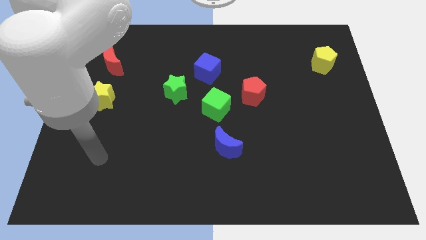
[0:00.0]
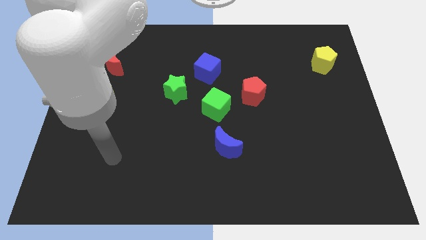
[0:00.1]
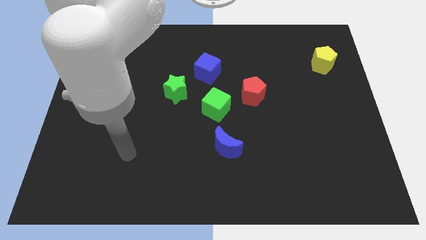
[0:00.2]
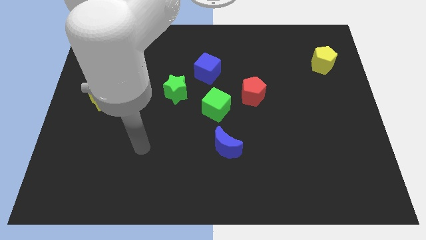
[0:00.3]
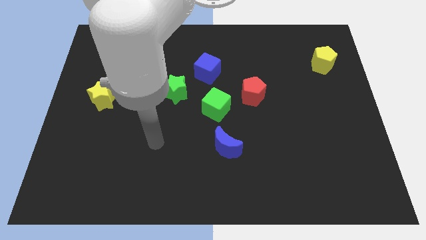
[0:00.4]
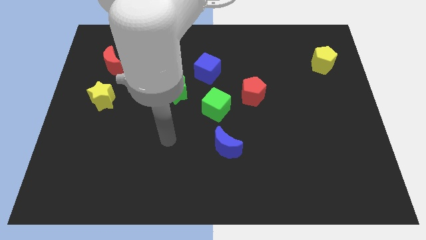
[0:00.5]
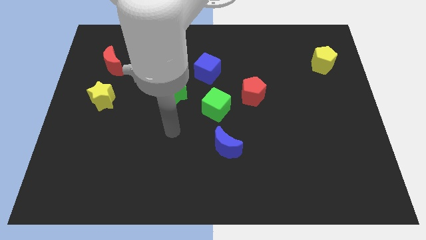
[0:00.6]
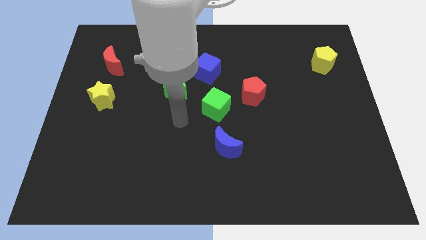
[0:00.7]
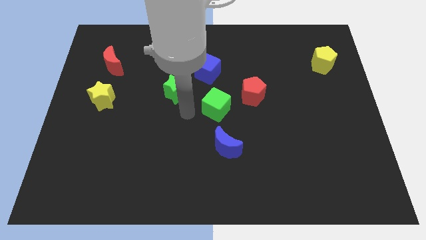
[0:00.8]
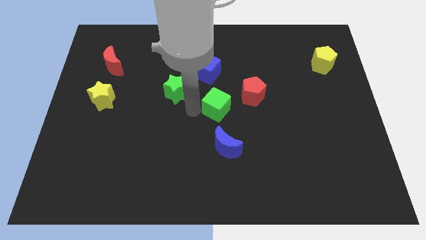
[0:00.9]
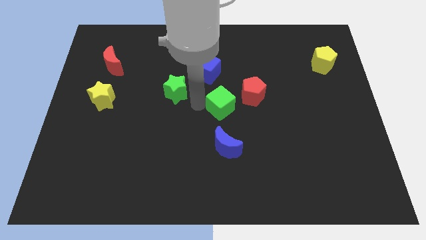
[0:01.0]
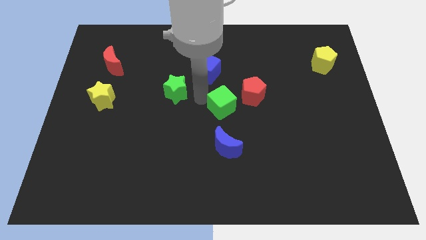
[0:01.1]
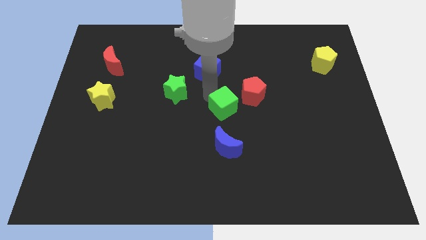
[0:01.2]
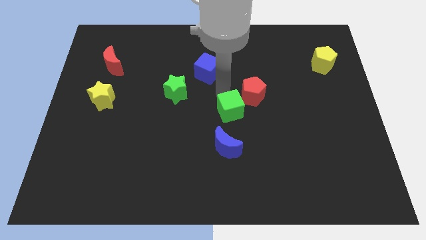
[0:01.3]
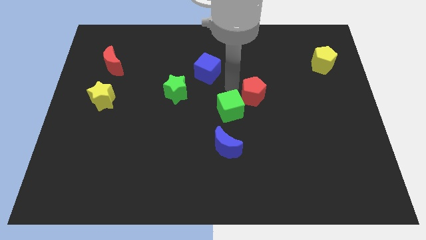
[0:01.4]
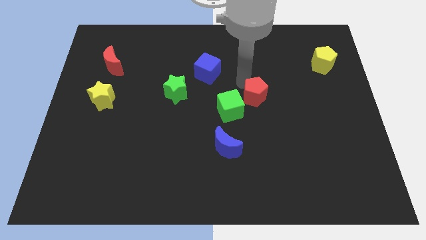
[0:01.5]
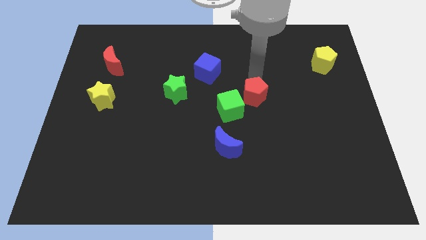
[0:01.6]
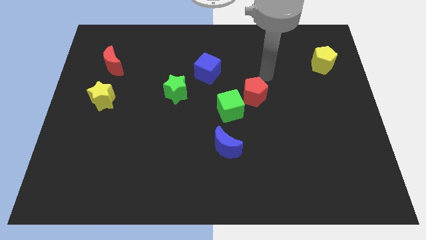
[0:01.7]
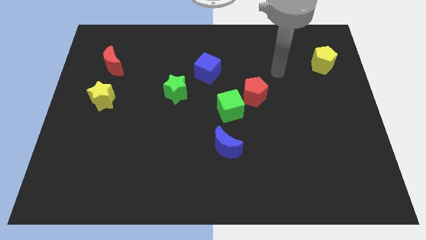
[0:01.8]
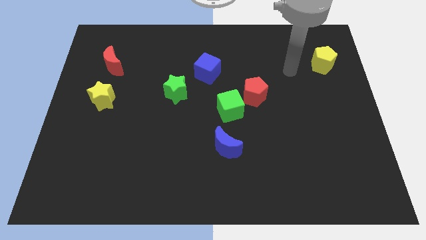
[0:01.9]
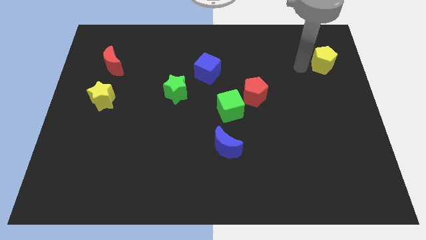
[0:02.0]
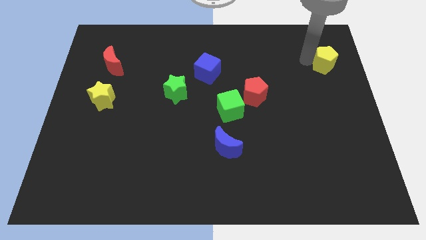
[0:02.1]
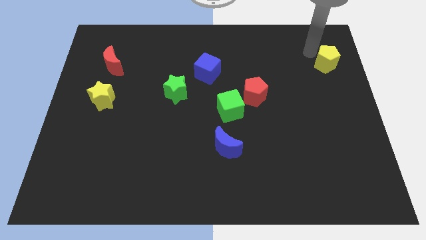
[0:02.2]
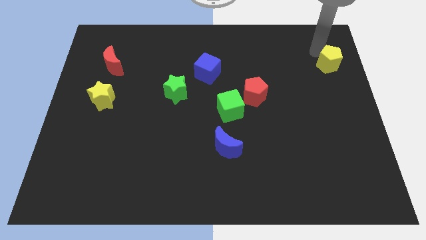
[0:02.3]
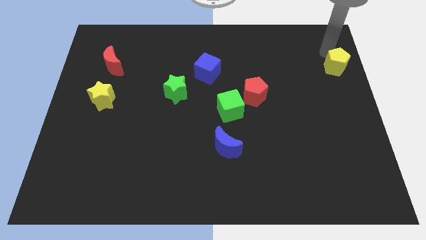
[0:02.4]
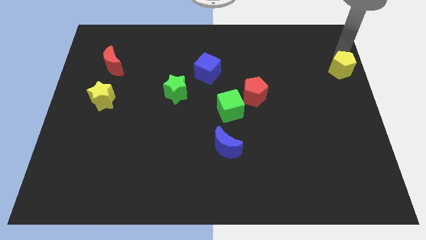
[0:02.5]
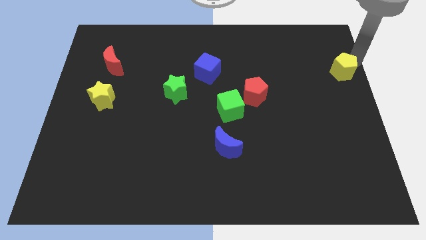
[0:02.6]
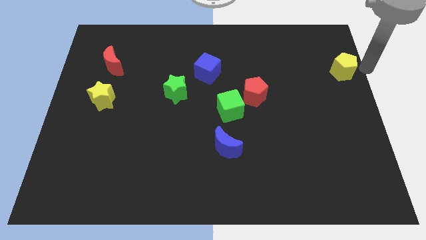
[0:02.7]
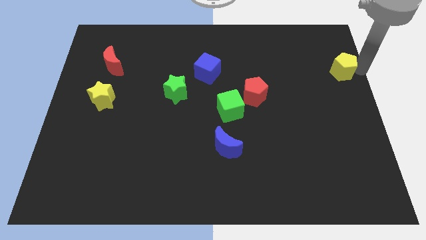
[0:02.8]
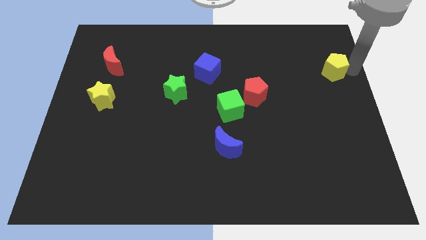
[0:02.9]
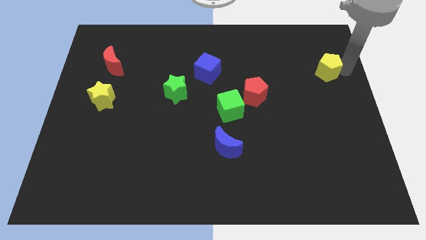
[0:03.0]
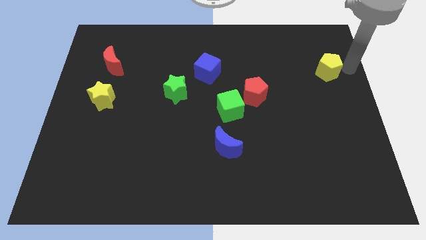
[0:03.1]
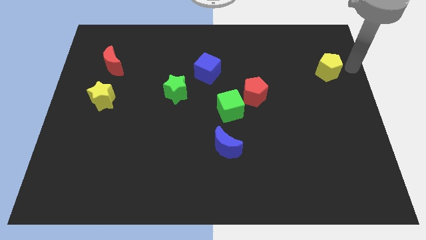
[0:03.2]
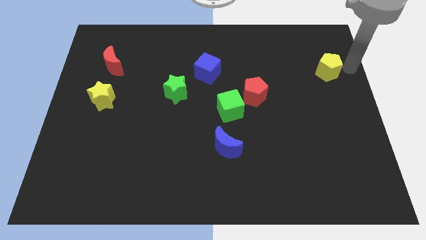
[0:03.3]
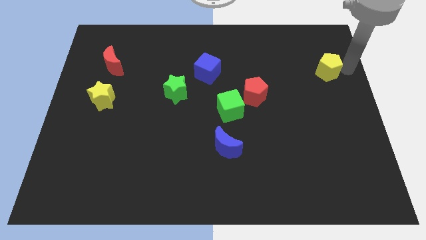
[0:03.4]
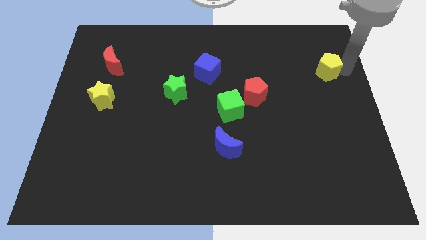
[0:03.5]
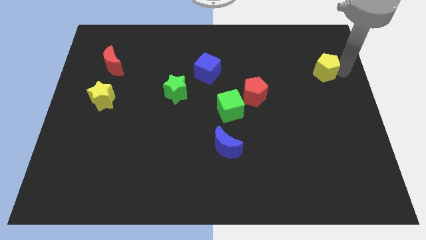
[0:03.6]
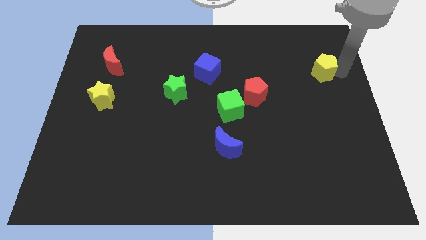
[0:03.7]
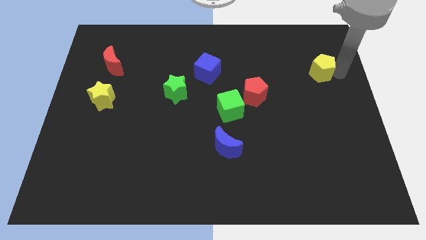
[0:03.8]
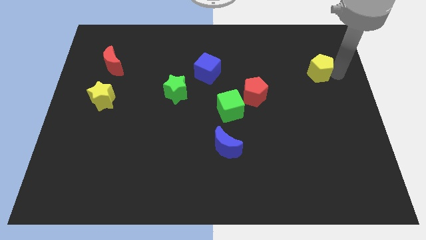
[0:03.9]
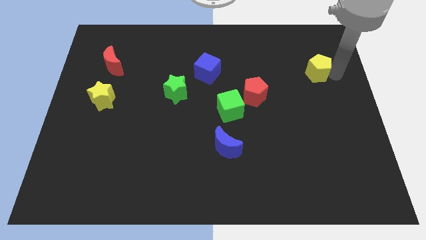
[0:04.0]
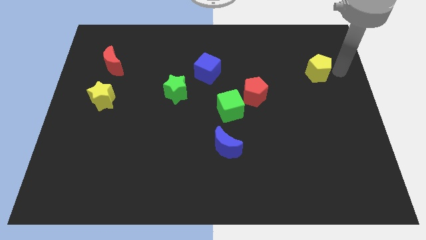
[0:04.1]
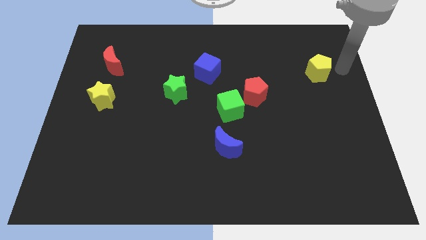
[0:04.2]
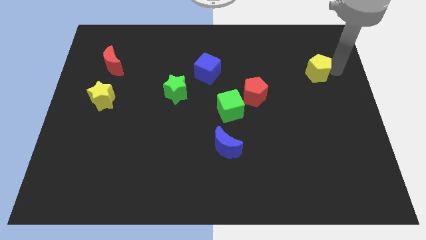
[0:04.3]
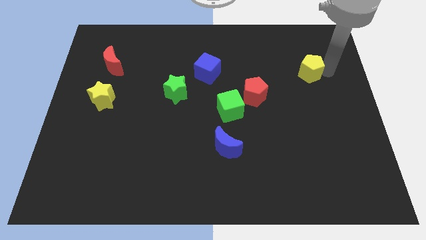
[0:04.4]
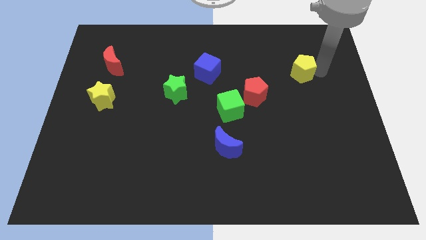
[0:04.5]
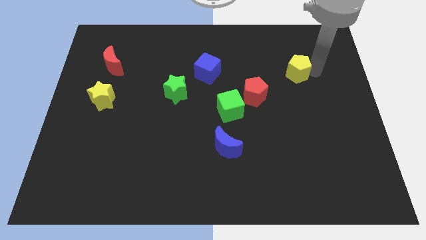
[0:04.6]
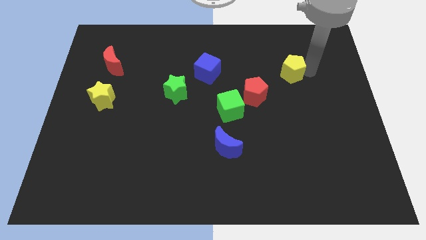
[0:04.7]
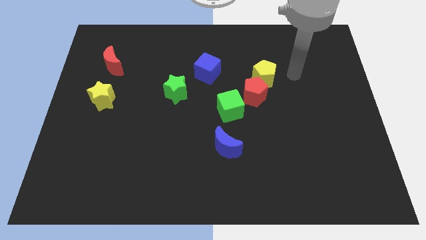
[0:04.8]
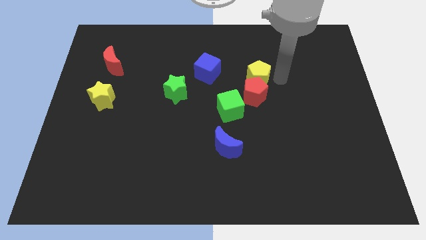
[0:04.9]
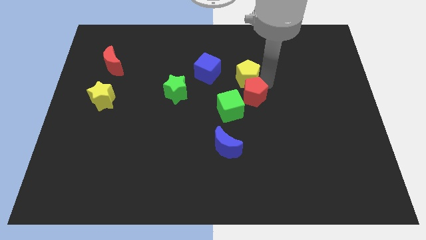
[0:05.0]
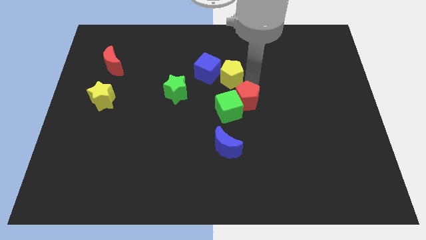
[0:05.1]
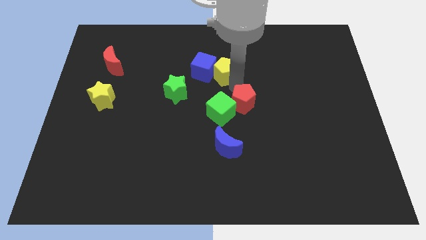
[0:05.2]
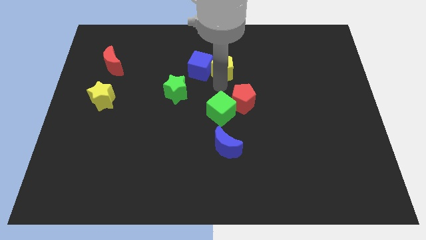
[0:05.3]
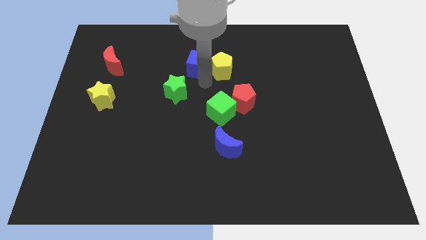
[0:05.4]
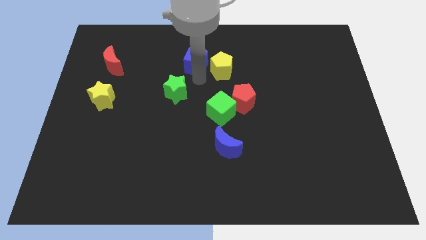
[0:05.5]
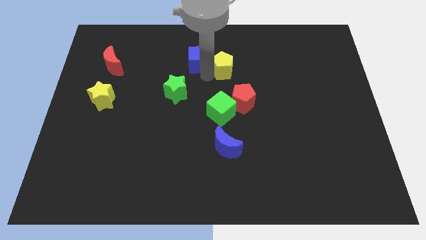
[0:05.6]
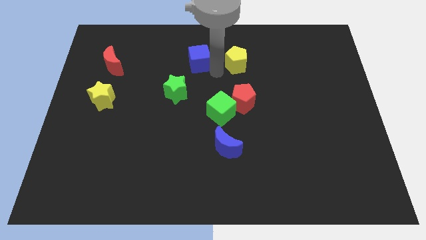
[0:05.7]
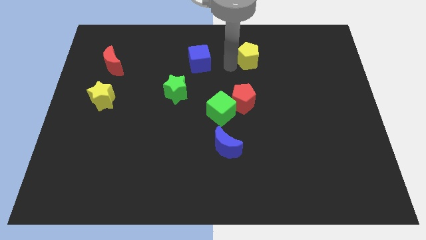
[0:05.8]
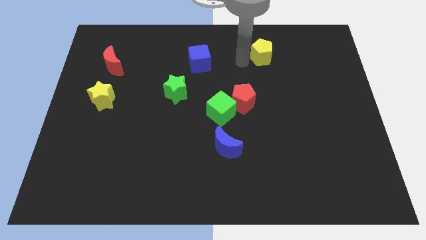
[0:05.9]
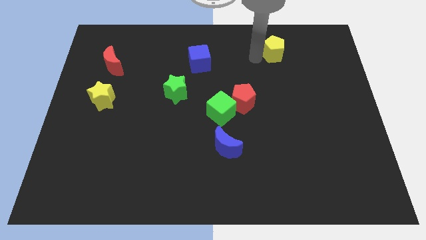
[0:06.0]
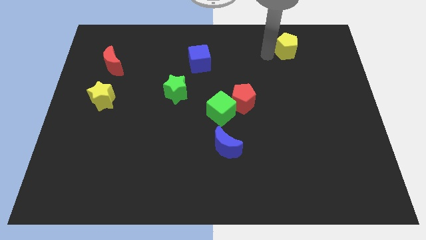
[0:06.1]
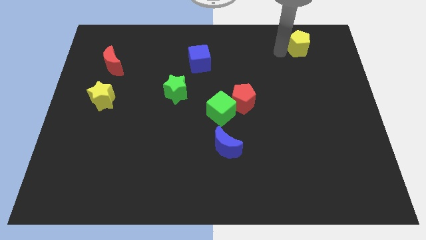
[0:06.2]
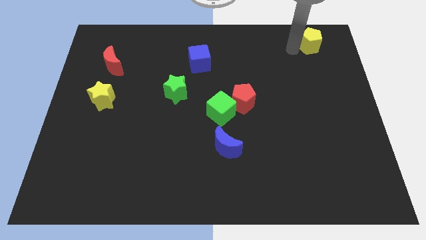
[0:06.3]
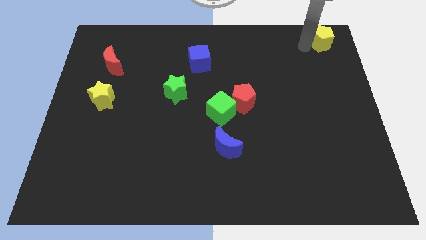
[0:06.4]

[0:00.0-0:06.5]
push the yellow pentagon to the top right corner
